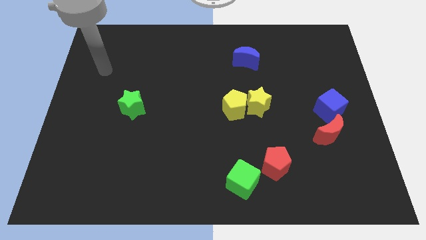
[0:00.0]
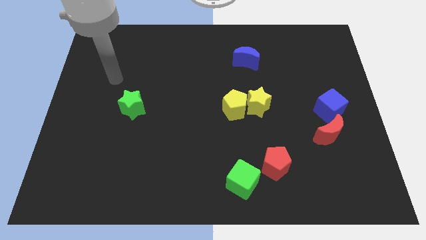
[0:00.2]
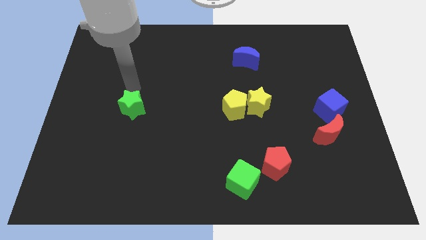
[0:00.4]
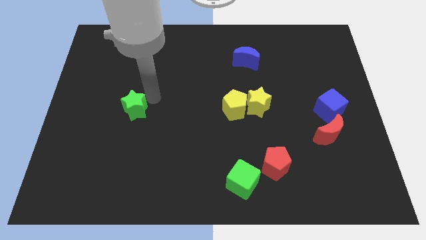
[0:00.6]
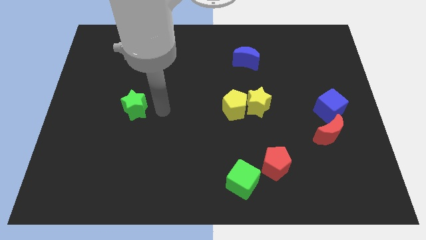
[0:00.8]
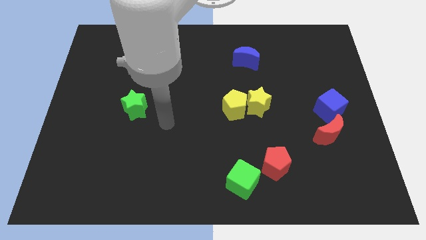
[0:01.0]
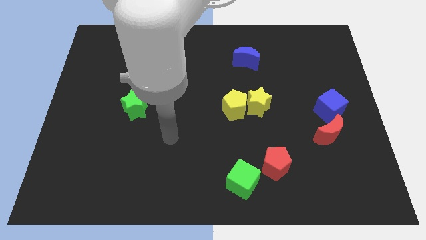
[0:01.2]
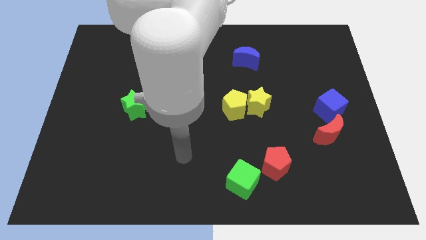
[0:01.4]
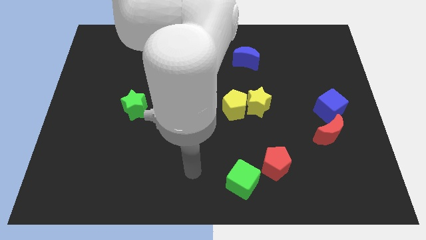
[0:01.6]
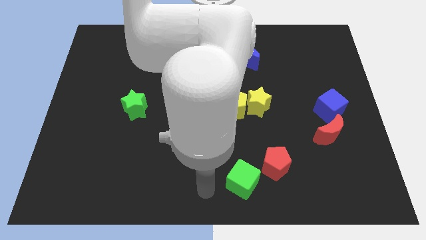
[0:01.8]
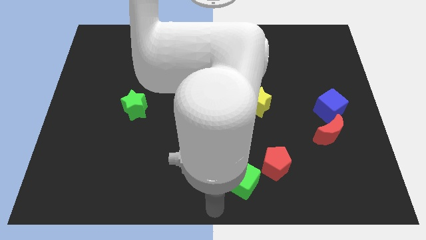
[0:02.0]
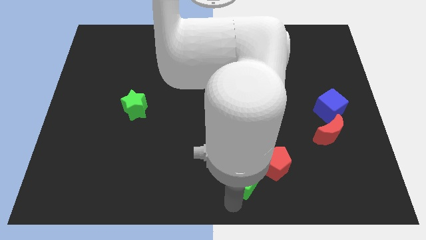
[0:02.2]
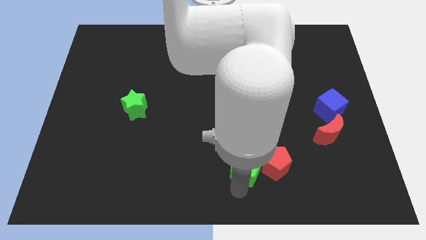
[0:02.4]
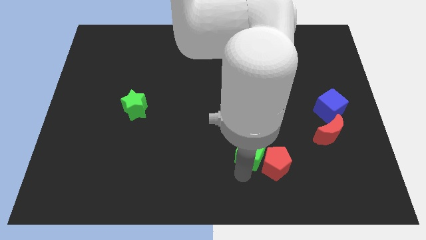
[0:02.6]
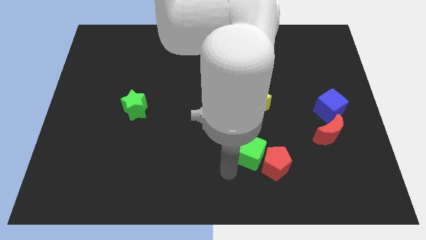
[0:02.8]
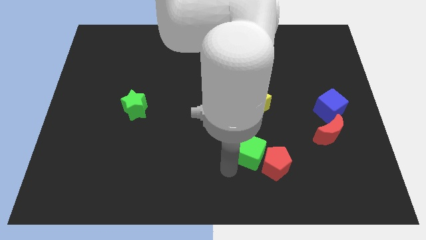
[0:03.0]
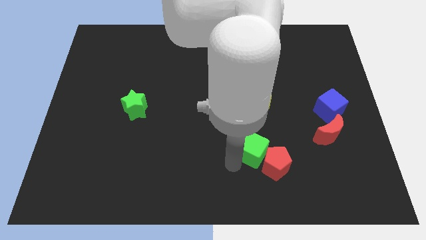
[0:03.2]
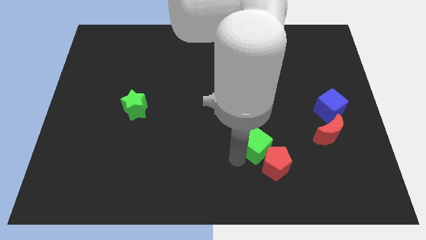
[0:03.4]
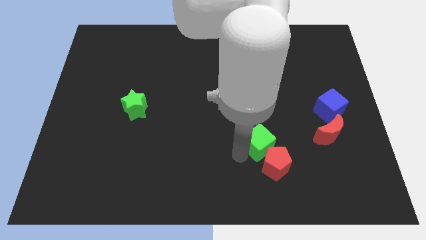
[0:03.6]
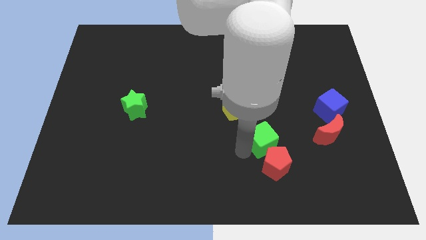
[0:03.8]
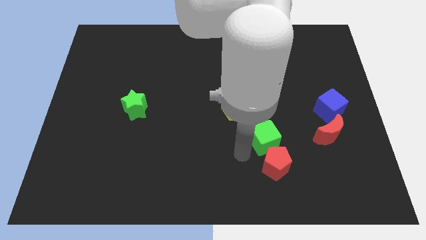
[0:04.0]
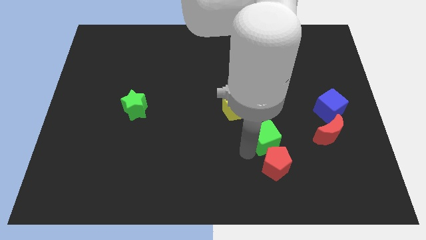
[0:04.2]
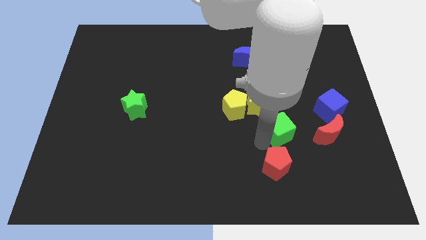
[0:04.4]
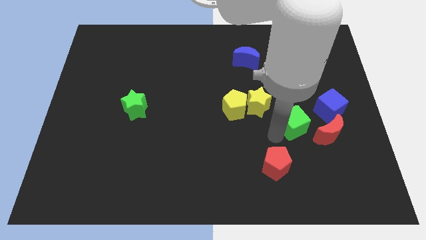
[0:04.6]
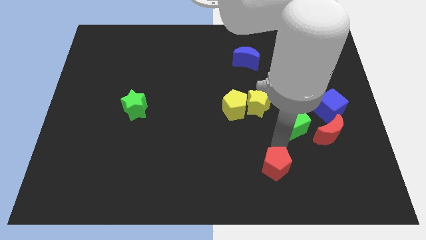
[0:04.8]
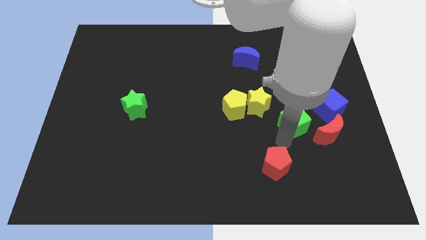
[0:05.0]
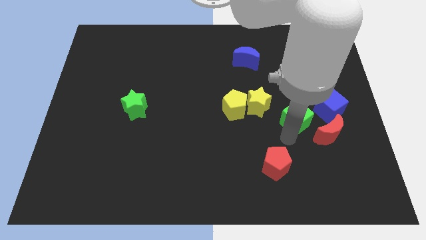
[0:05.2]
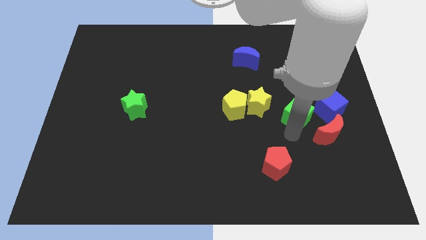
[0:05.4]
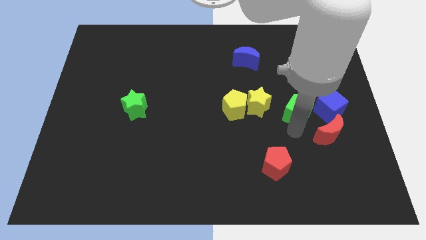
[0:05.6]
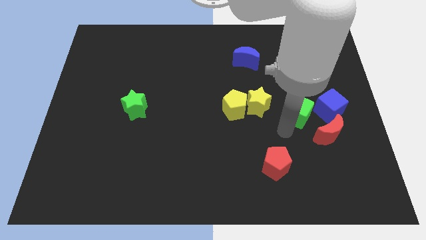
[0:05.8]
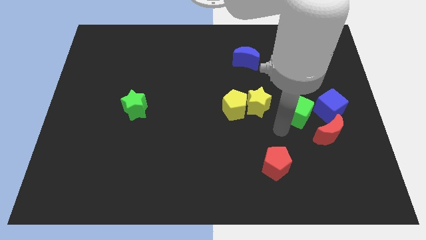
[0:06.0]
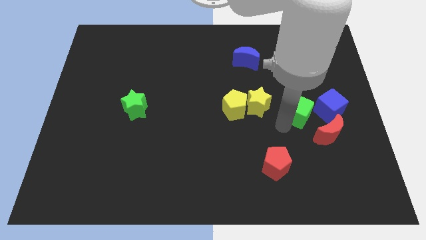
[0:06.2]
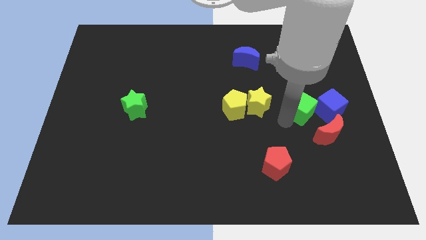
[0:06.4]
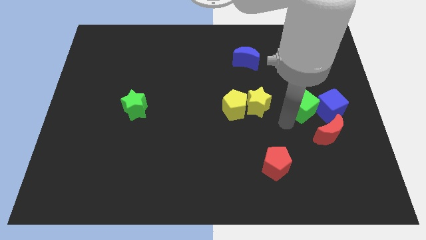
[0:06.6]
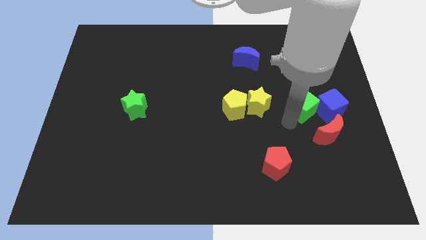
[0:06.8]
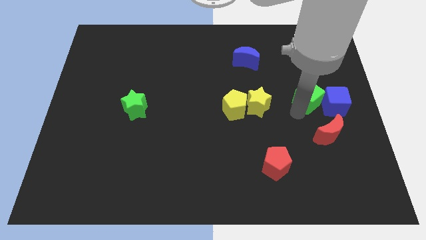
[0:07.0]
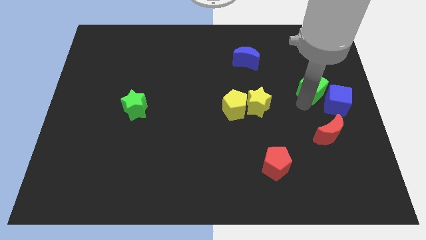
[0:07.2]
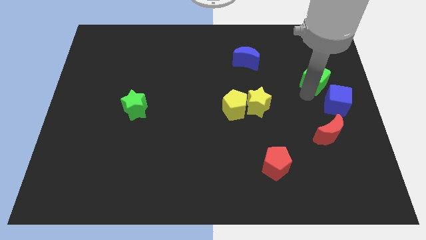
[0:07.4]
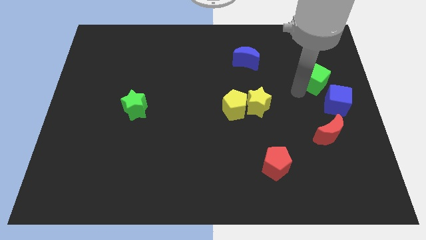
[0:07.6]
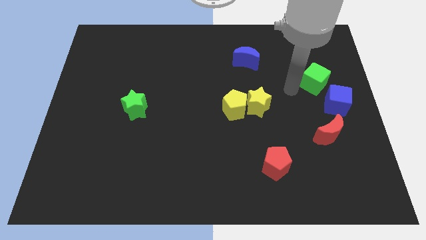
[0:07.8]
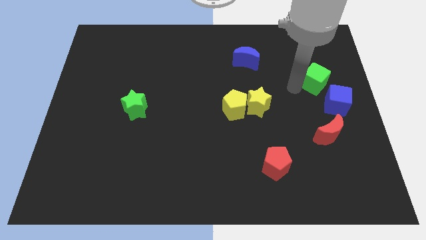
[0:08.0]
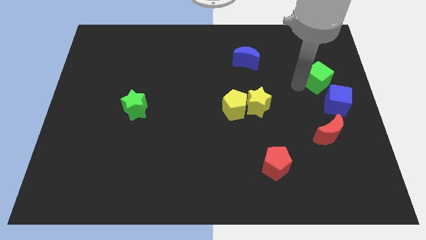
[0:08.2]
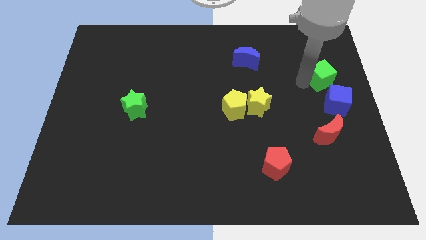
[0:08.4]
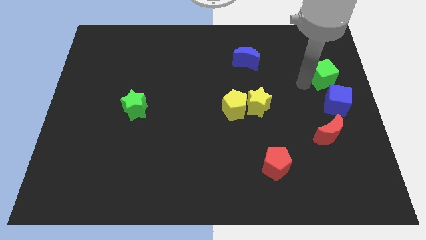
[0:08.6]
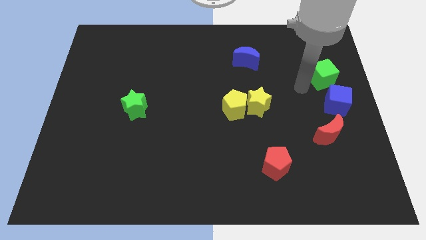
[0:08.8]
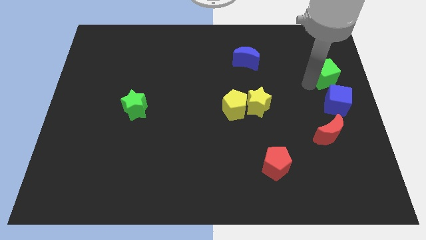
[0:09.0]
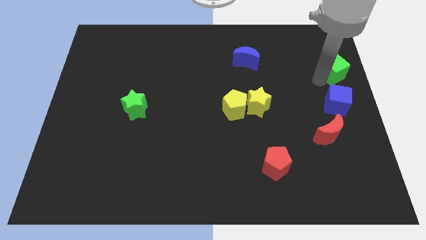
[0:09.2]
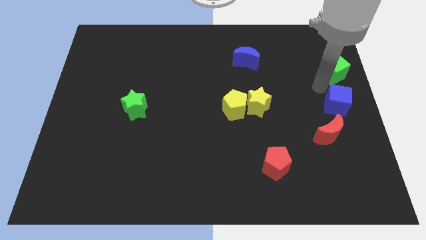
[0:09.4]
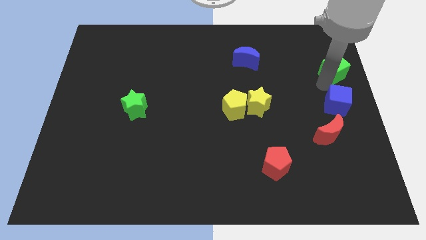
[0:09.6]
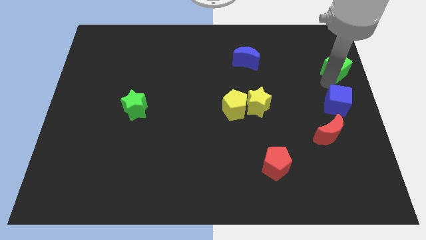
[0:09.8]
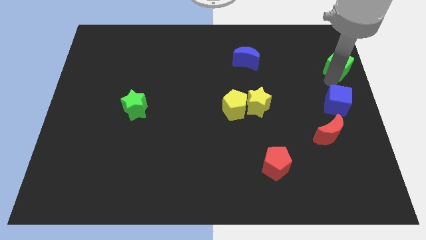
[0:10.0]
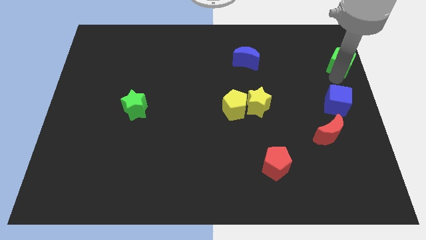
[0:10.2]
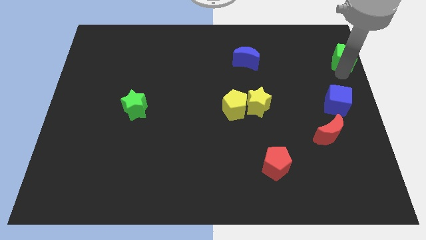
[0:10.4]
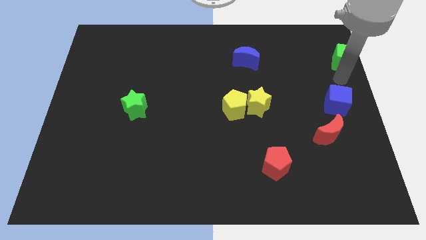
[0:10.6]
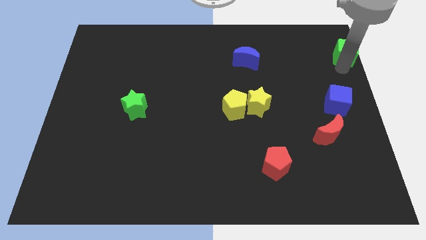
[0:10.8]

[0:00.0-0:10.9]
move the green cube to the top right

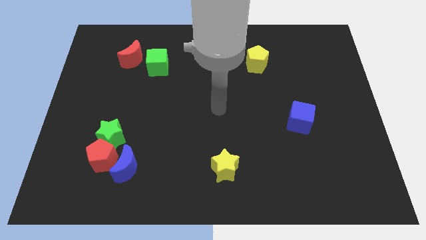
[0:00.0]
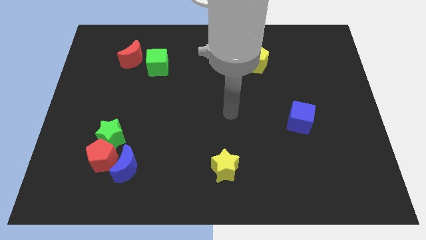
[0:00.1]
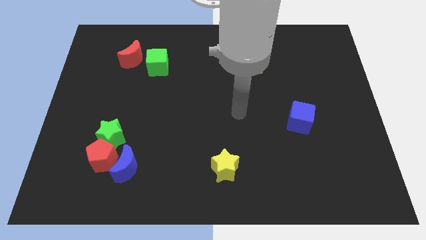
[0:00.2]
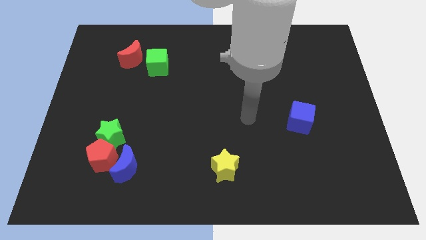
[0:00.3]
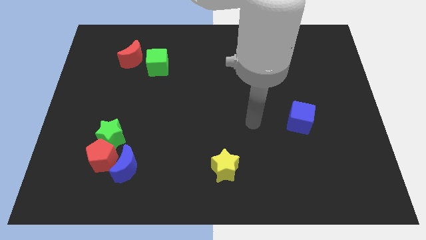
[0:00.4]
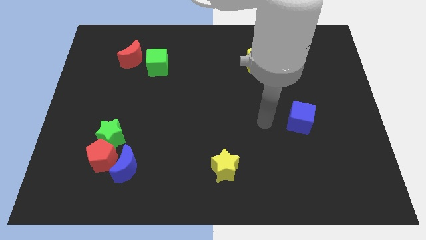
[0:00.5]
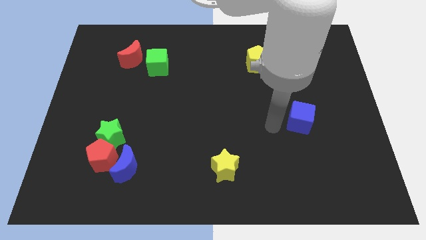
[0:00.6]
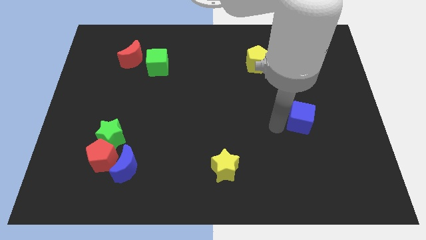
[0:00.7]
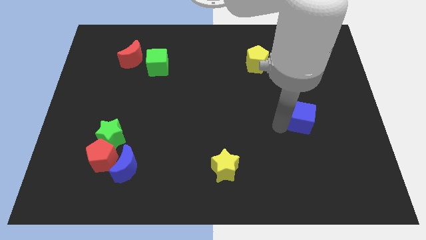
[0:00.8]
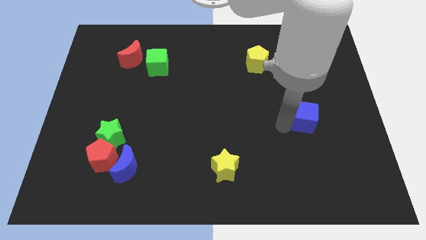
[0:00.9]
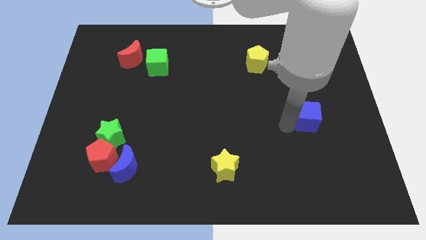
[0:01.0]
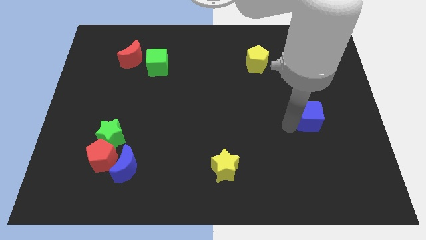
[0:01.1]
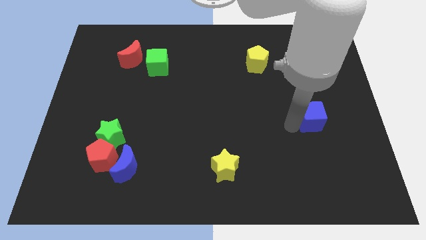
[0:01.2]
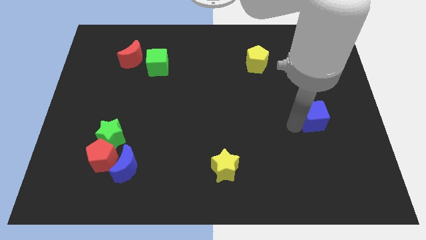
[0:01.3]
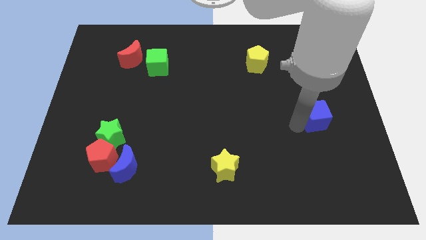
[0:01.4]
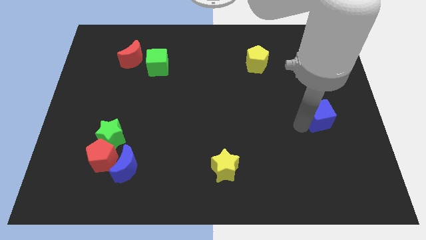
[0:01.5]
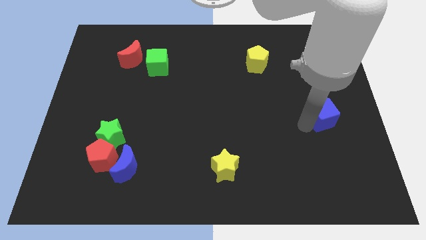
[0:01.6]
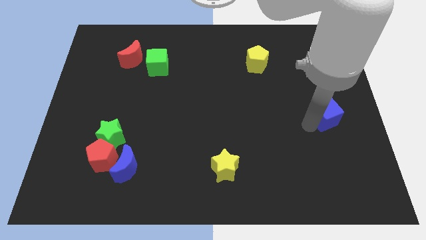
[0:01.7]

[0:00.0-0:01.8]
put the blue cube to the right side of the board
